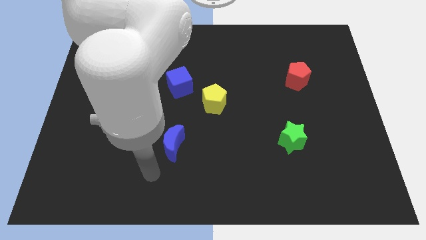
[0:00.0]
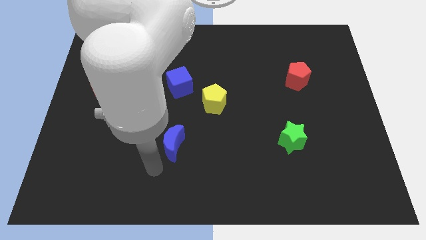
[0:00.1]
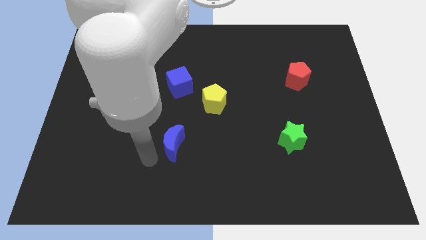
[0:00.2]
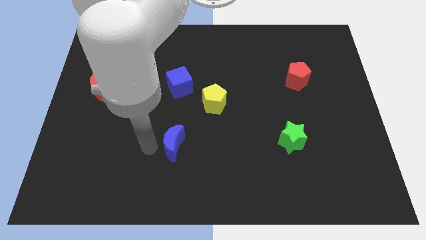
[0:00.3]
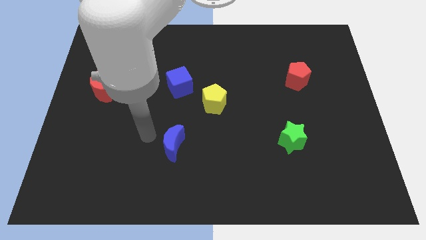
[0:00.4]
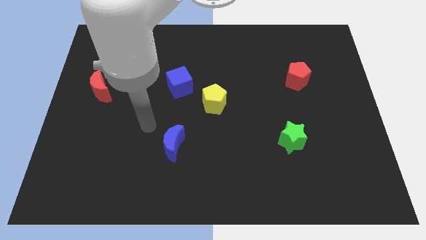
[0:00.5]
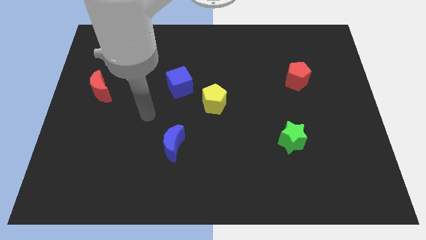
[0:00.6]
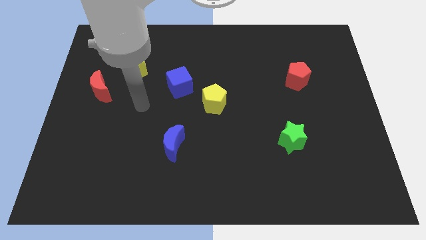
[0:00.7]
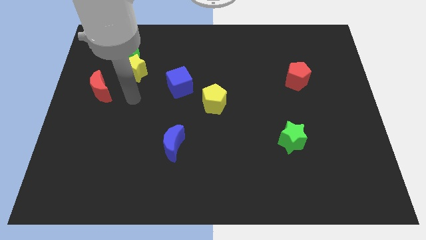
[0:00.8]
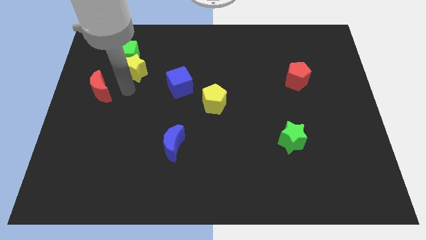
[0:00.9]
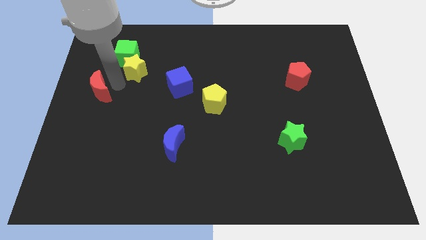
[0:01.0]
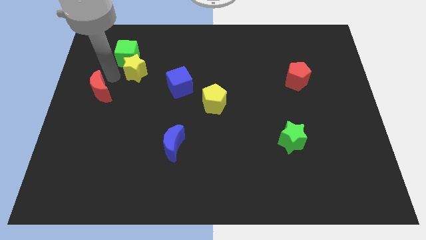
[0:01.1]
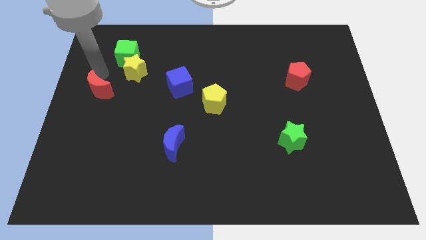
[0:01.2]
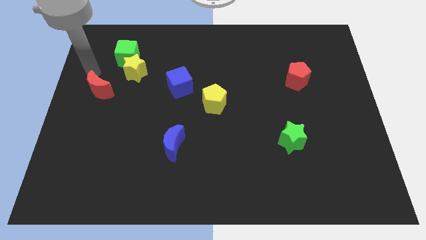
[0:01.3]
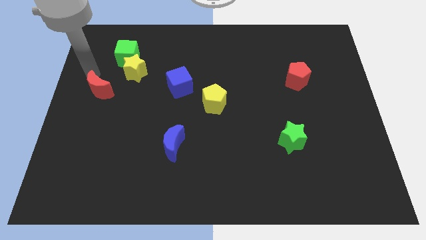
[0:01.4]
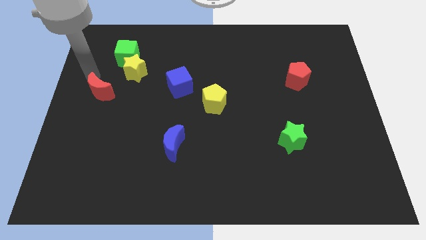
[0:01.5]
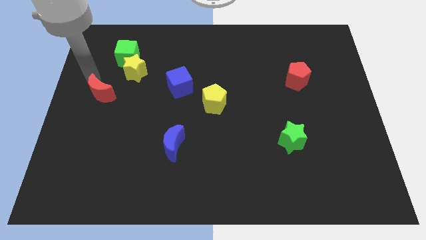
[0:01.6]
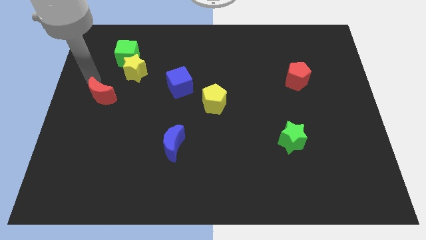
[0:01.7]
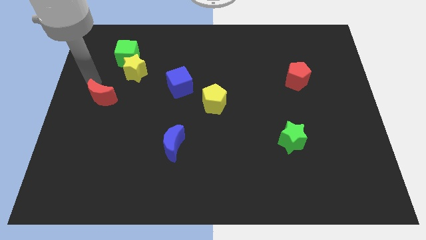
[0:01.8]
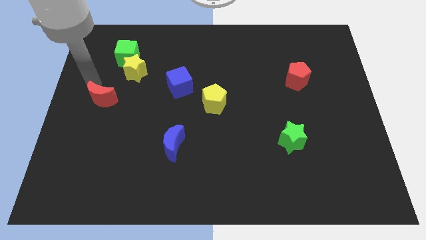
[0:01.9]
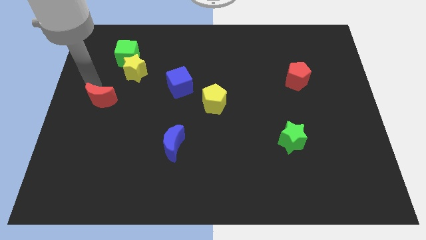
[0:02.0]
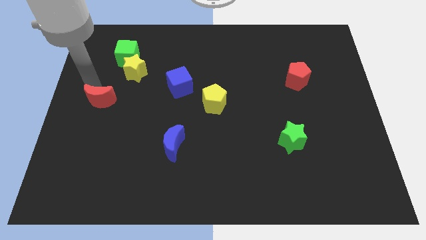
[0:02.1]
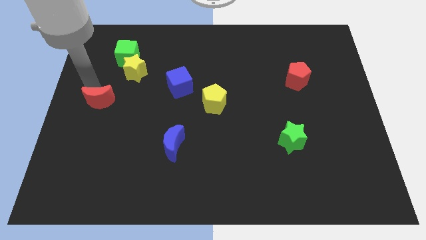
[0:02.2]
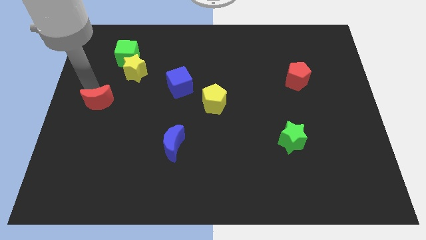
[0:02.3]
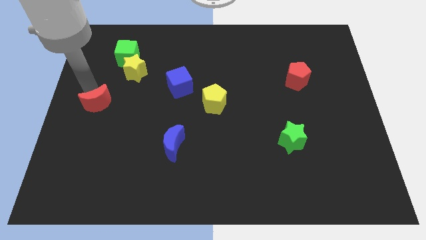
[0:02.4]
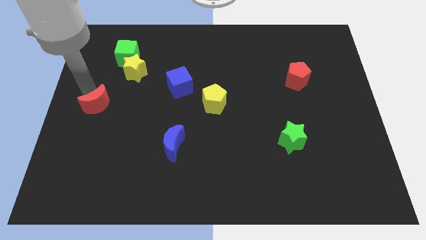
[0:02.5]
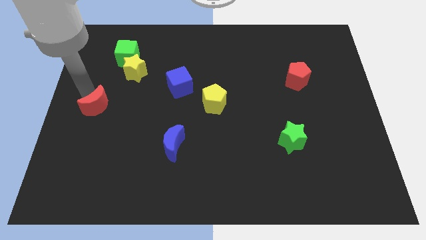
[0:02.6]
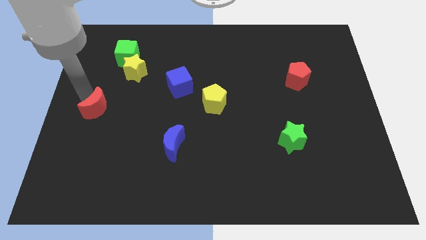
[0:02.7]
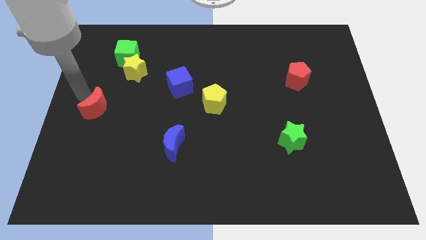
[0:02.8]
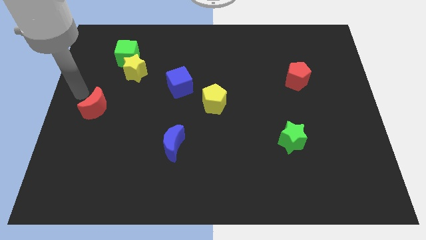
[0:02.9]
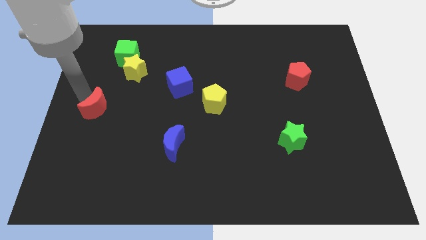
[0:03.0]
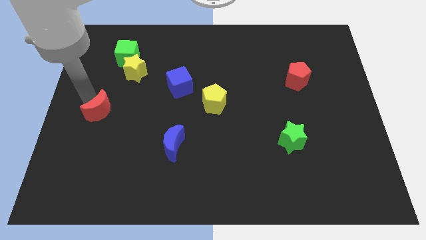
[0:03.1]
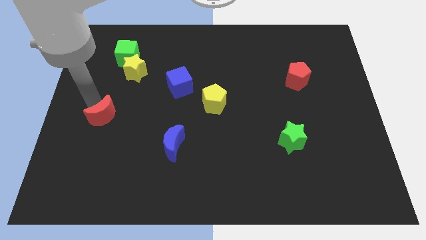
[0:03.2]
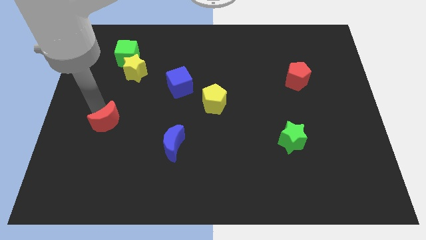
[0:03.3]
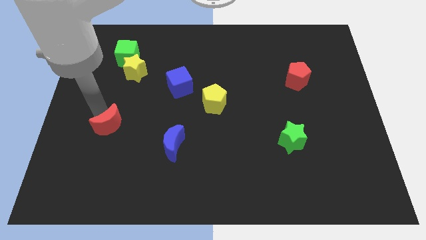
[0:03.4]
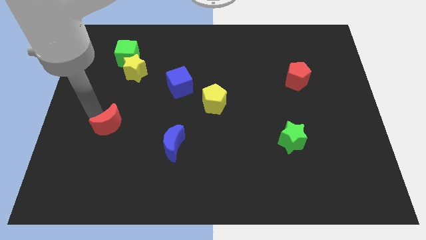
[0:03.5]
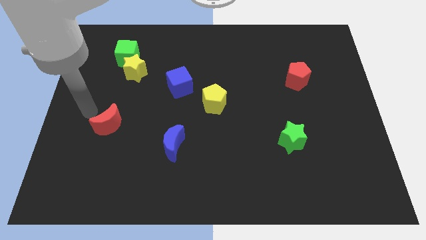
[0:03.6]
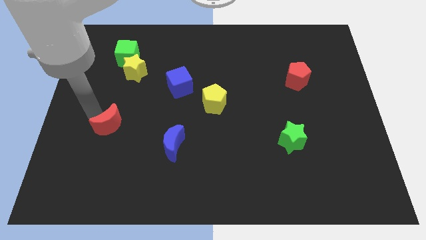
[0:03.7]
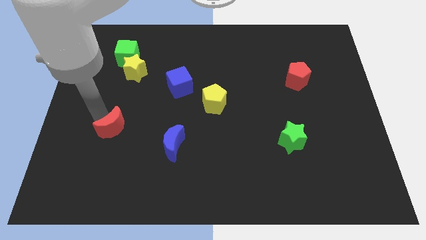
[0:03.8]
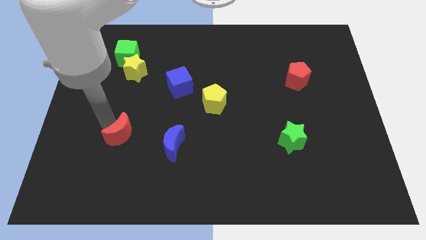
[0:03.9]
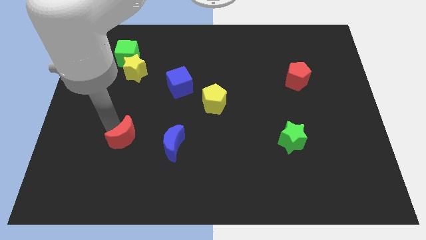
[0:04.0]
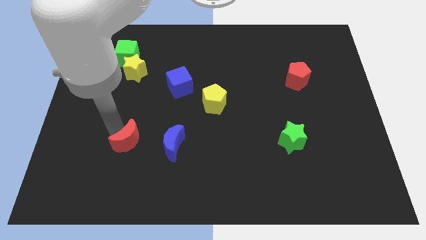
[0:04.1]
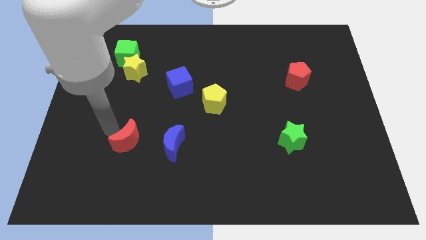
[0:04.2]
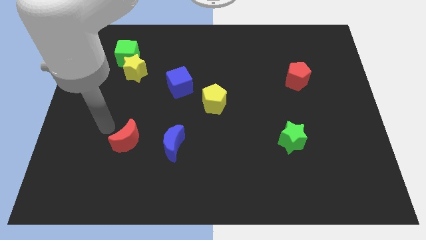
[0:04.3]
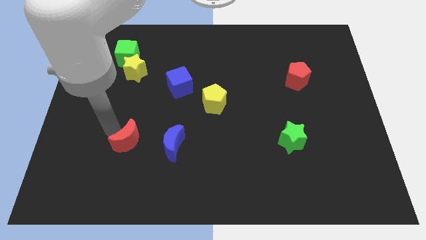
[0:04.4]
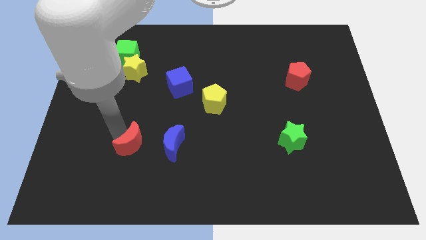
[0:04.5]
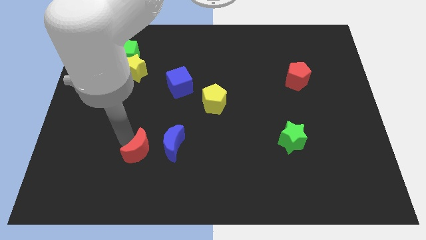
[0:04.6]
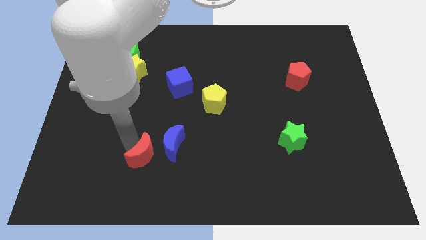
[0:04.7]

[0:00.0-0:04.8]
push the red moon downwards and to the right

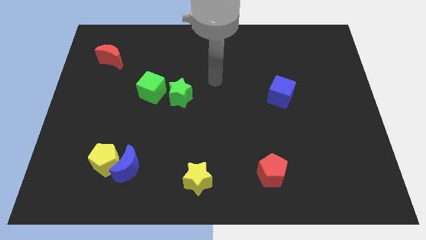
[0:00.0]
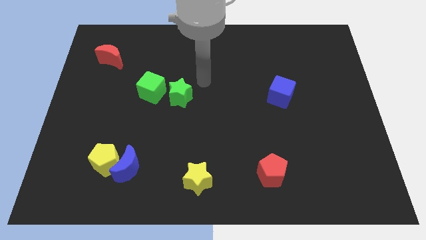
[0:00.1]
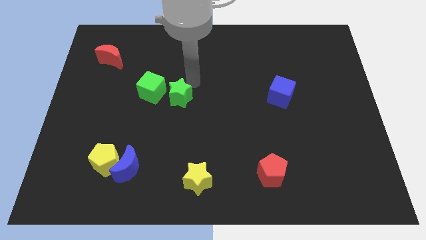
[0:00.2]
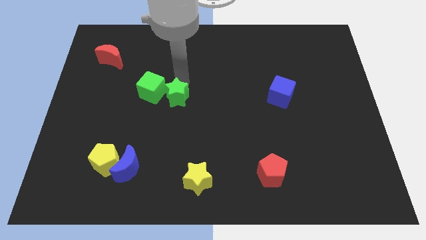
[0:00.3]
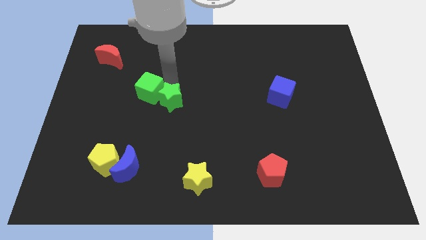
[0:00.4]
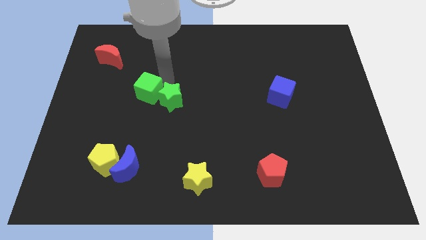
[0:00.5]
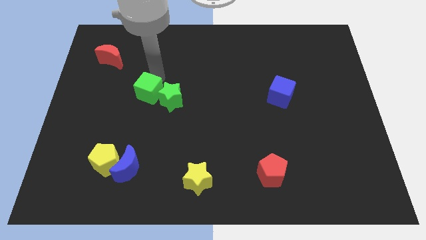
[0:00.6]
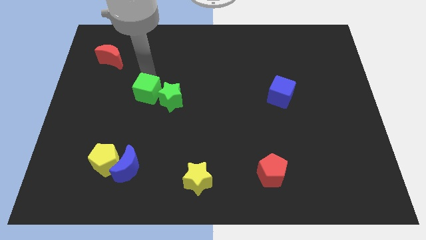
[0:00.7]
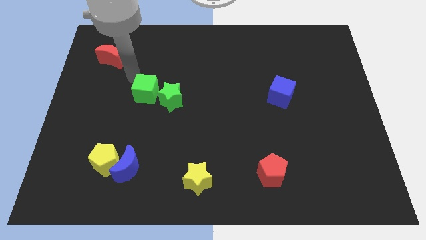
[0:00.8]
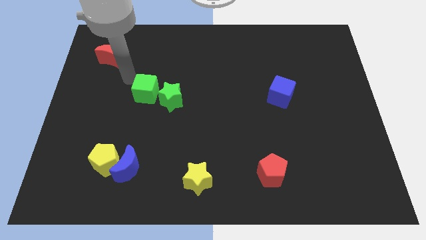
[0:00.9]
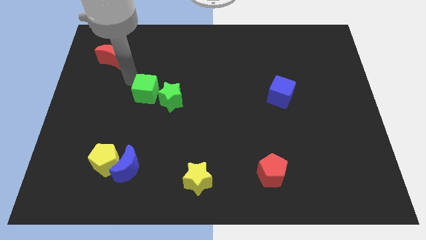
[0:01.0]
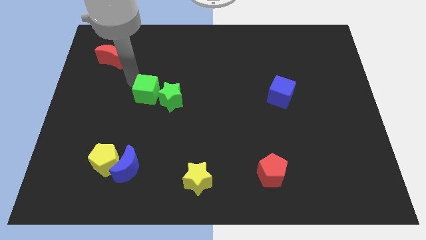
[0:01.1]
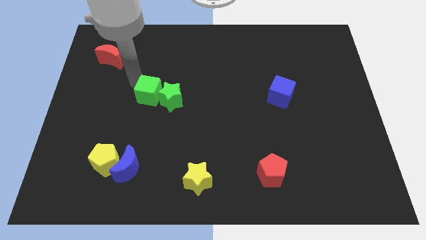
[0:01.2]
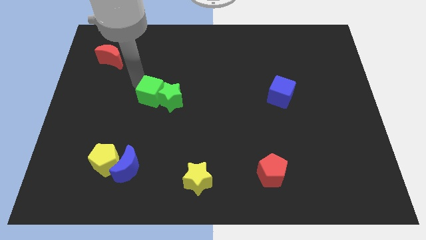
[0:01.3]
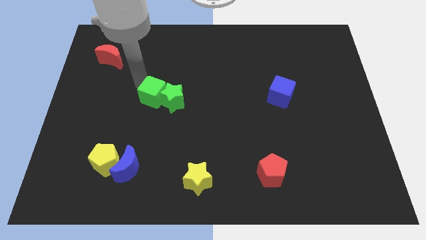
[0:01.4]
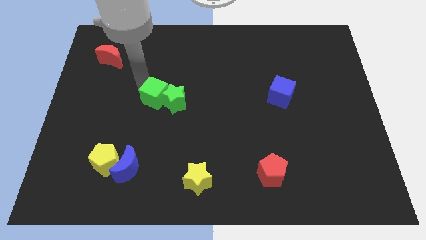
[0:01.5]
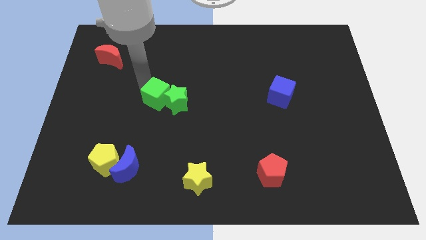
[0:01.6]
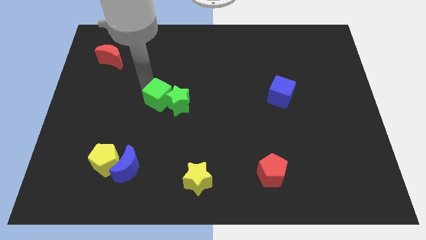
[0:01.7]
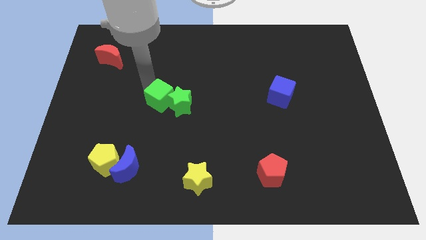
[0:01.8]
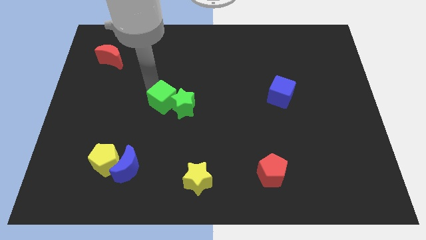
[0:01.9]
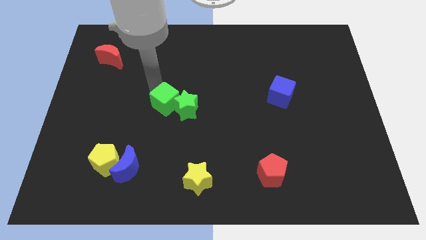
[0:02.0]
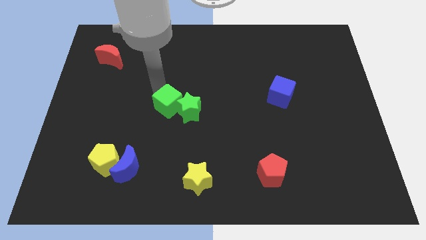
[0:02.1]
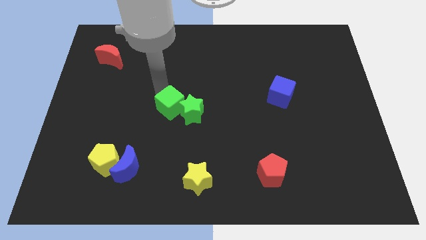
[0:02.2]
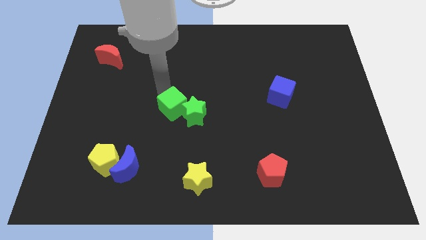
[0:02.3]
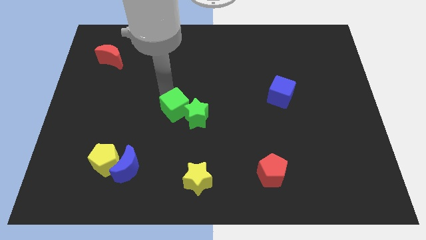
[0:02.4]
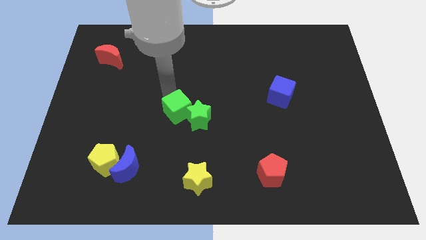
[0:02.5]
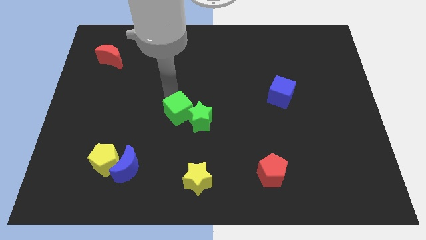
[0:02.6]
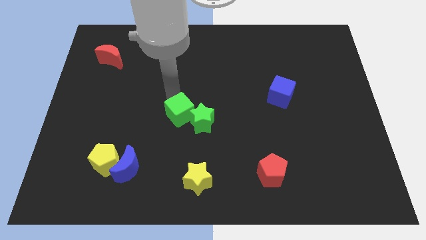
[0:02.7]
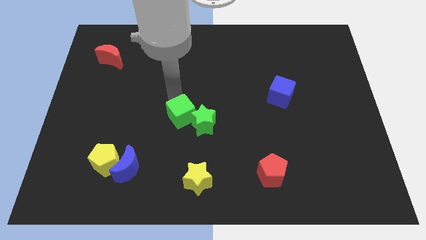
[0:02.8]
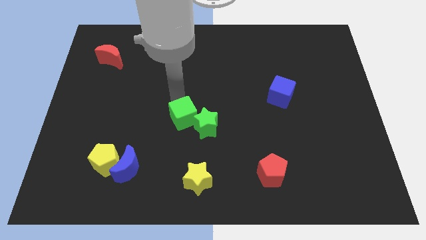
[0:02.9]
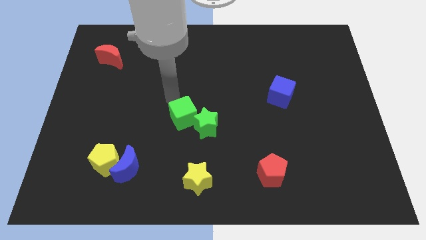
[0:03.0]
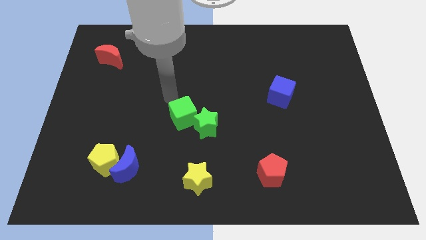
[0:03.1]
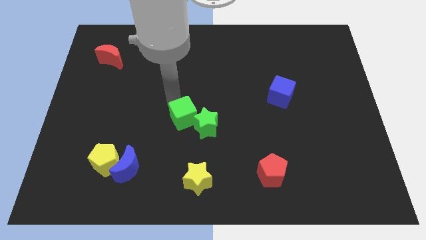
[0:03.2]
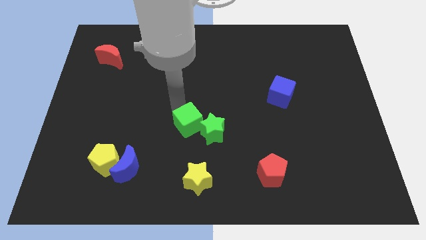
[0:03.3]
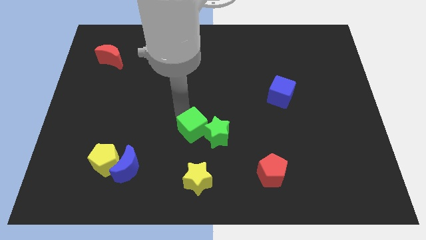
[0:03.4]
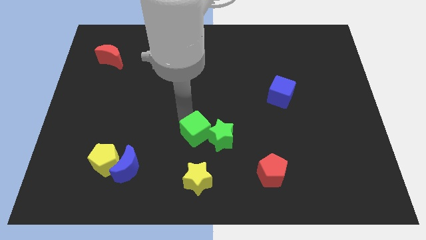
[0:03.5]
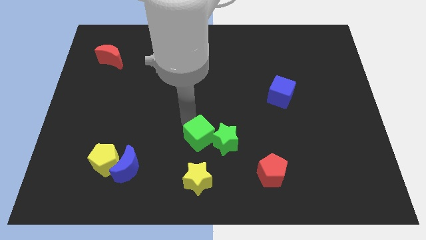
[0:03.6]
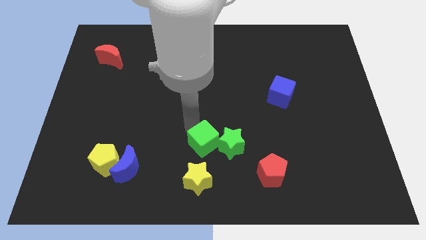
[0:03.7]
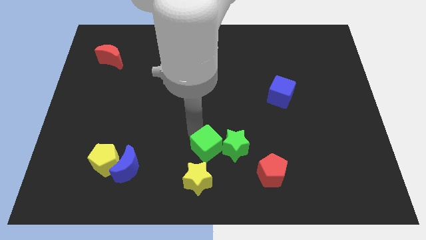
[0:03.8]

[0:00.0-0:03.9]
slide the green cube diagonally down and right
